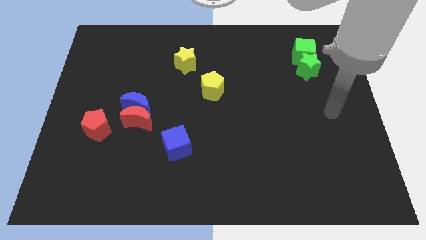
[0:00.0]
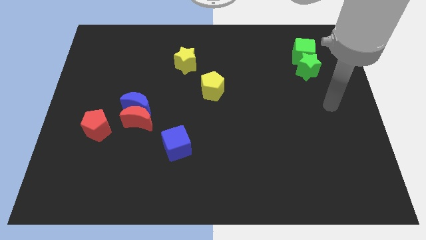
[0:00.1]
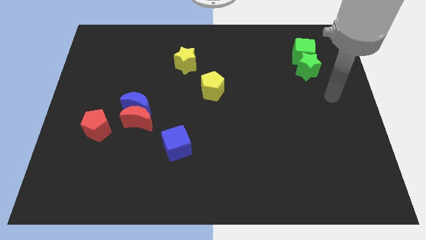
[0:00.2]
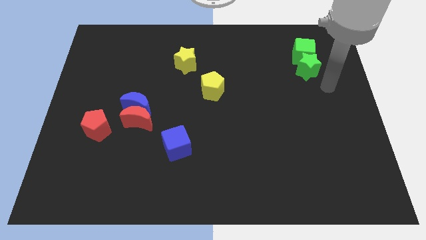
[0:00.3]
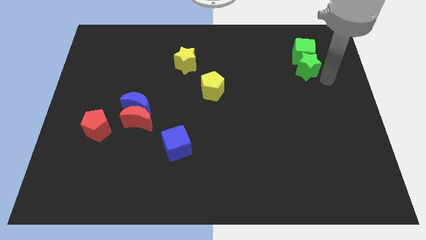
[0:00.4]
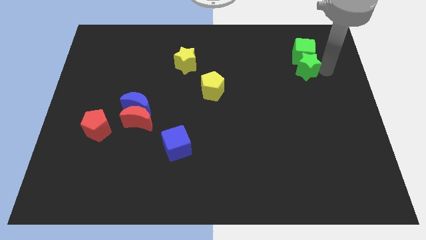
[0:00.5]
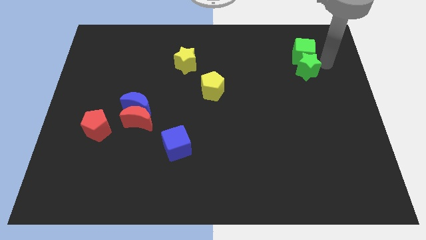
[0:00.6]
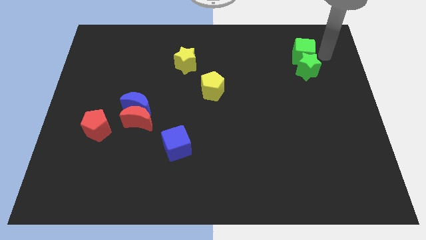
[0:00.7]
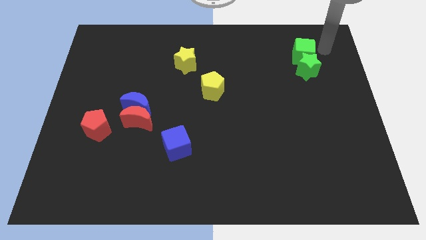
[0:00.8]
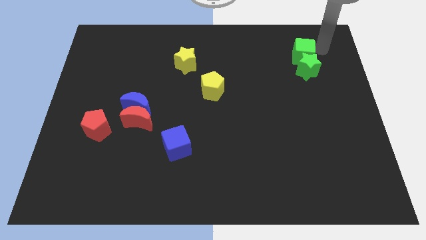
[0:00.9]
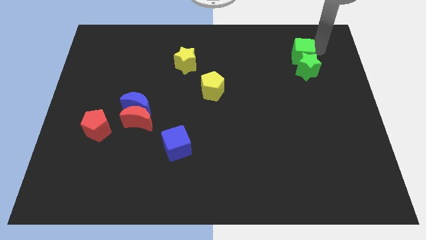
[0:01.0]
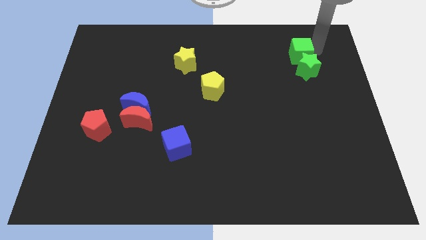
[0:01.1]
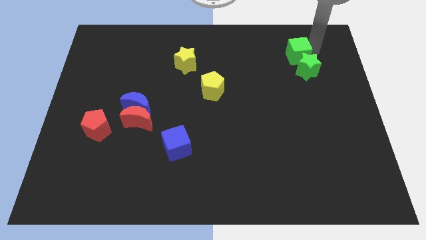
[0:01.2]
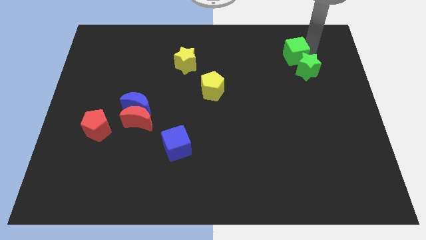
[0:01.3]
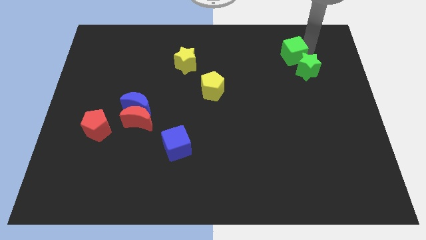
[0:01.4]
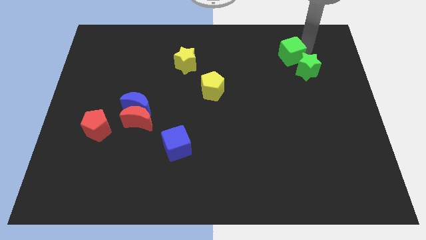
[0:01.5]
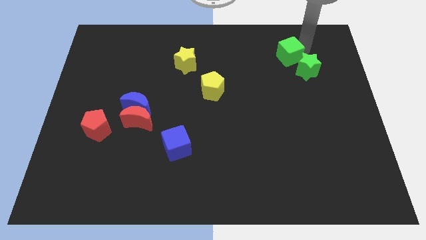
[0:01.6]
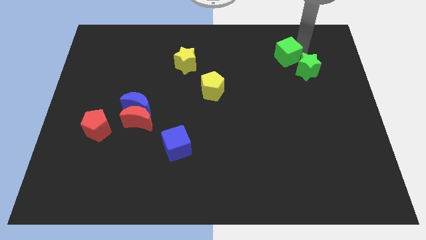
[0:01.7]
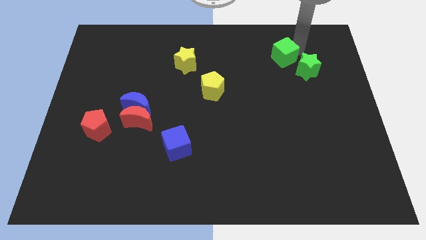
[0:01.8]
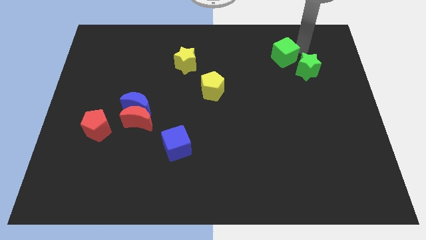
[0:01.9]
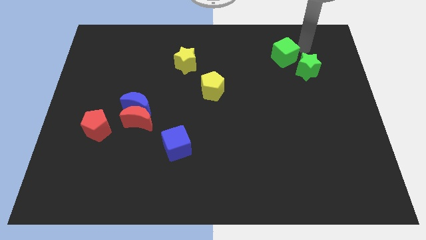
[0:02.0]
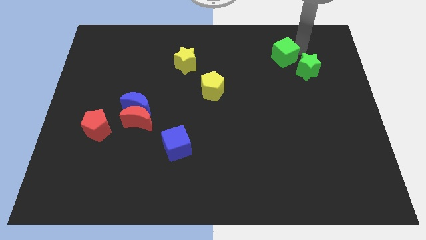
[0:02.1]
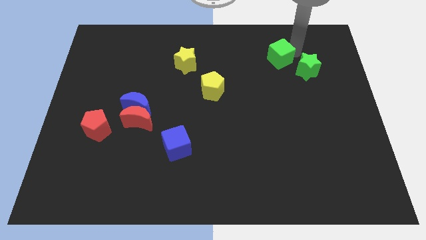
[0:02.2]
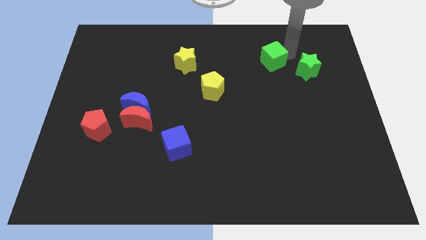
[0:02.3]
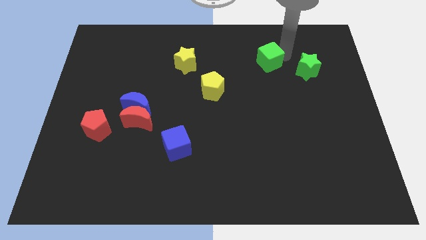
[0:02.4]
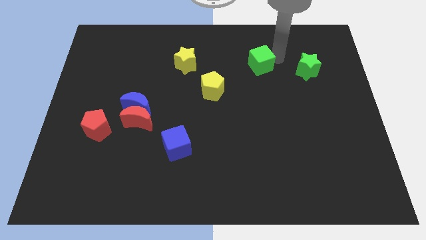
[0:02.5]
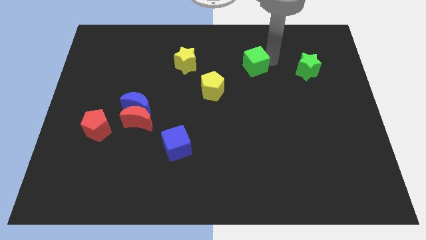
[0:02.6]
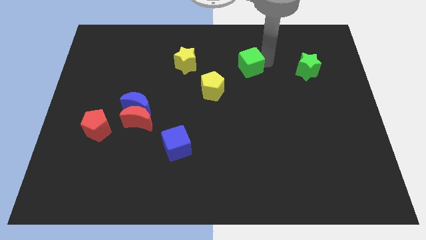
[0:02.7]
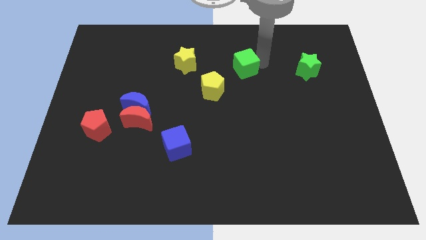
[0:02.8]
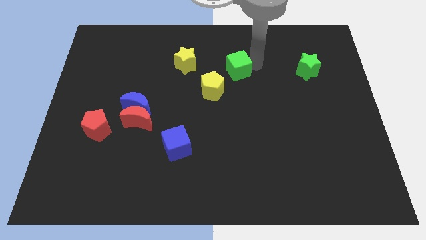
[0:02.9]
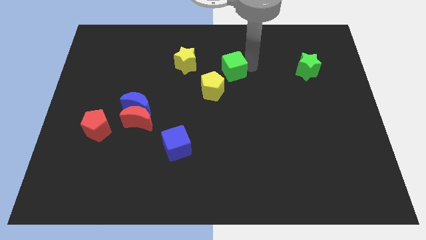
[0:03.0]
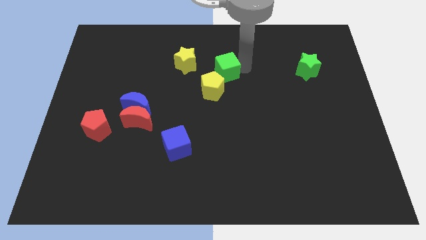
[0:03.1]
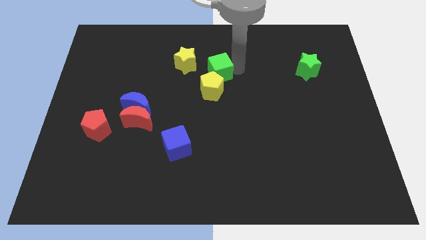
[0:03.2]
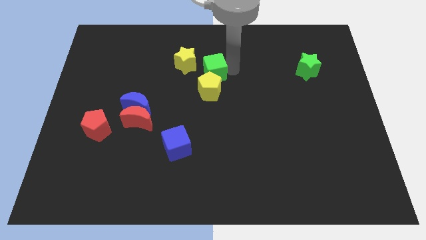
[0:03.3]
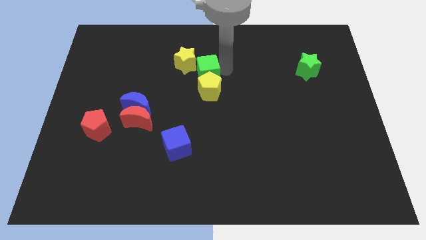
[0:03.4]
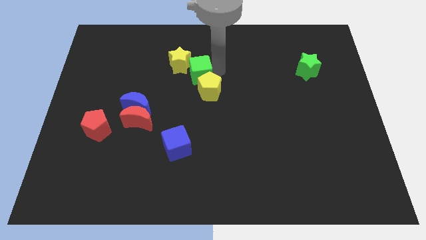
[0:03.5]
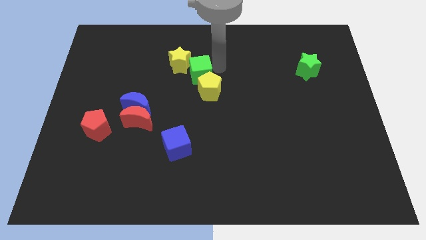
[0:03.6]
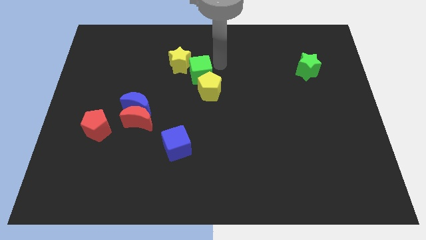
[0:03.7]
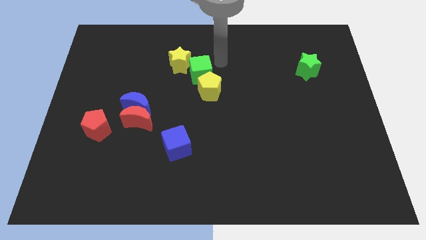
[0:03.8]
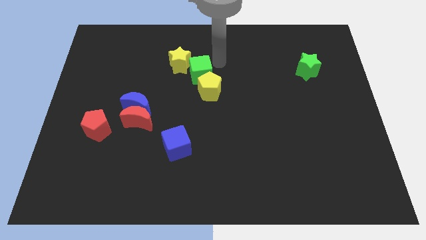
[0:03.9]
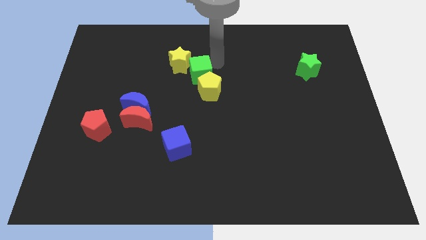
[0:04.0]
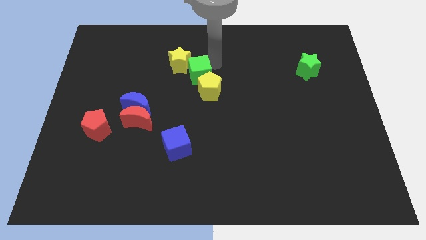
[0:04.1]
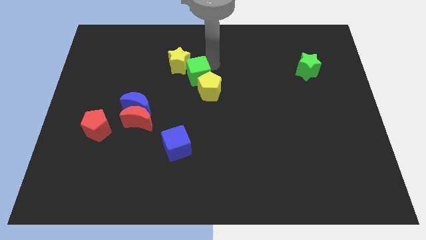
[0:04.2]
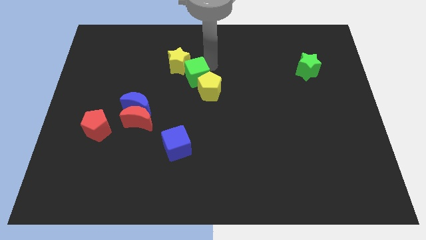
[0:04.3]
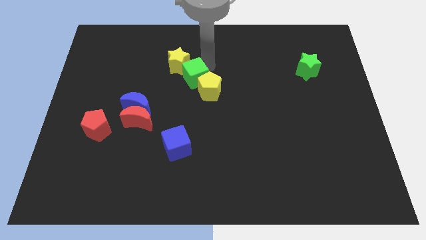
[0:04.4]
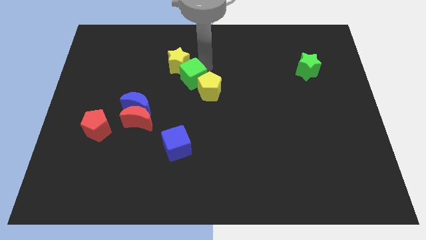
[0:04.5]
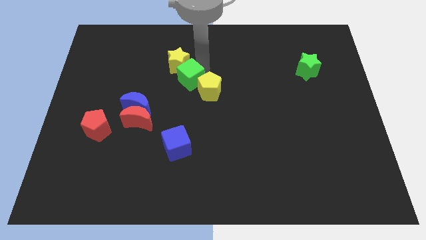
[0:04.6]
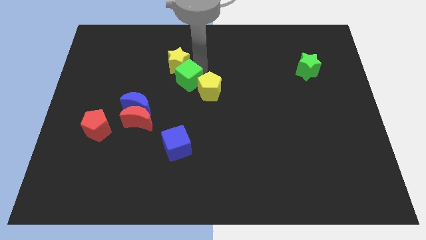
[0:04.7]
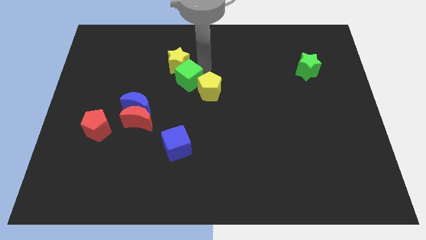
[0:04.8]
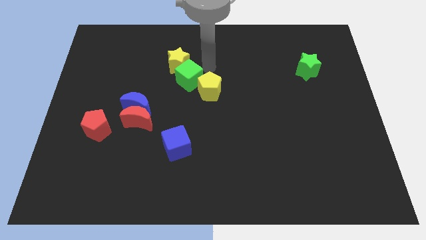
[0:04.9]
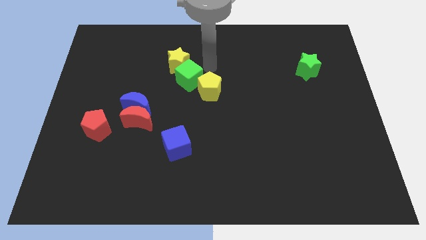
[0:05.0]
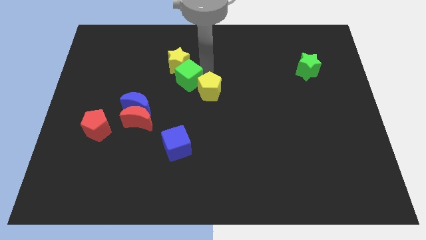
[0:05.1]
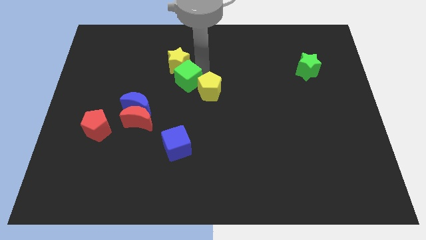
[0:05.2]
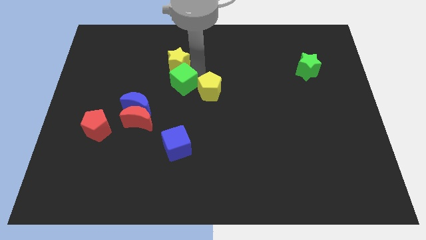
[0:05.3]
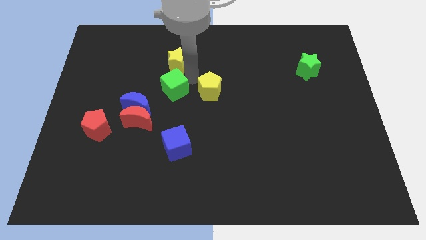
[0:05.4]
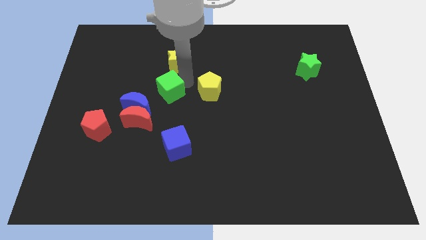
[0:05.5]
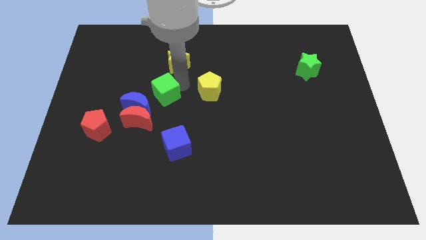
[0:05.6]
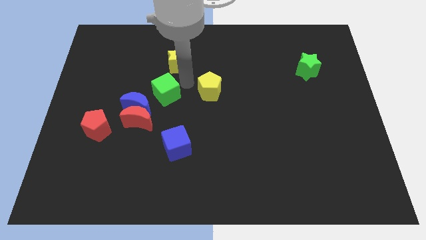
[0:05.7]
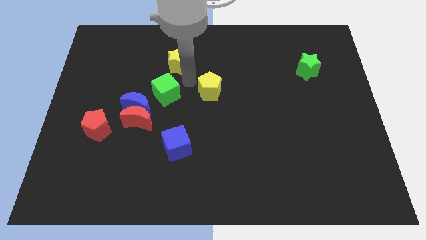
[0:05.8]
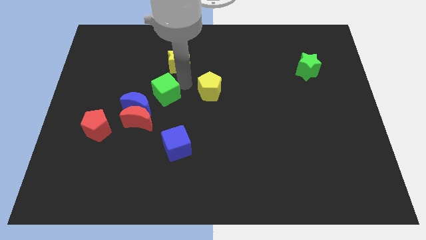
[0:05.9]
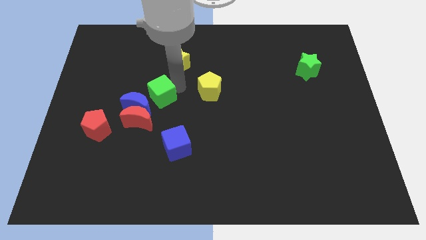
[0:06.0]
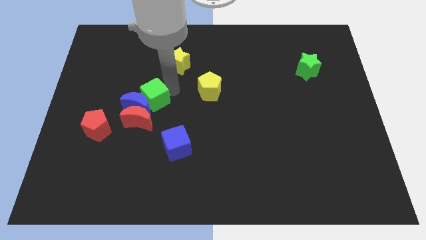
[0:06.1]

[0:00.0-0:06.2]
push the green cube to the blue moon

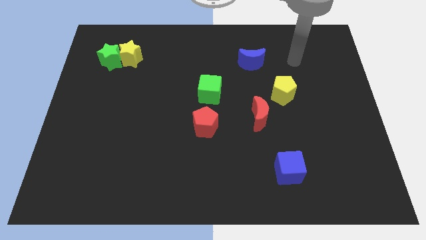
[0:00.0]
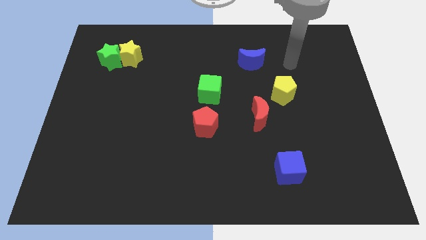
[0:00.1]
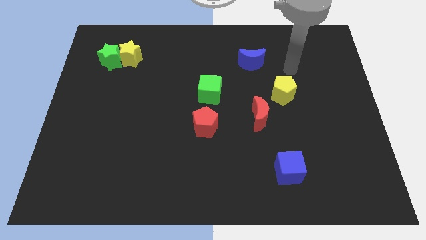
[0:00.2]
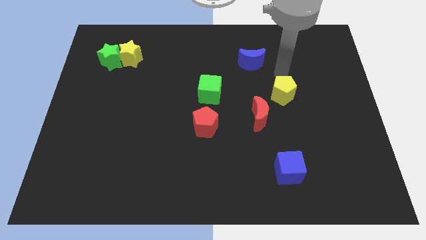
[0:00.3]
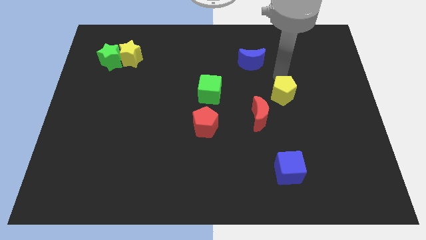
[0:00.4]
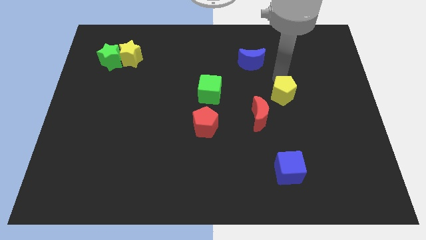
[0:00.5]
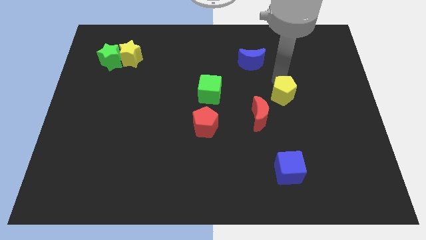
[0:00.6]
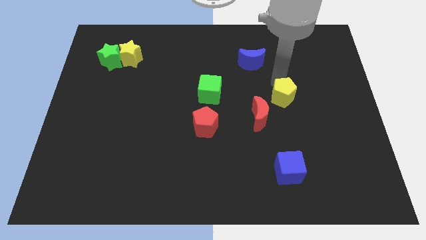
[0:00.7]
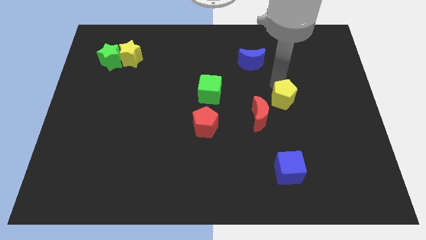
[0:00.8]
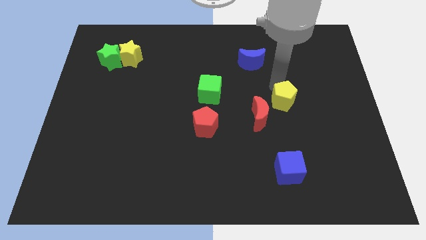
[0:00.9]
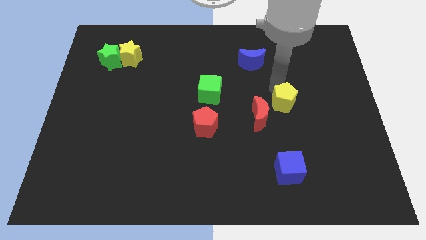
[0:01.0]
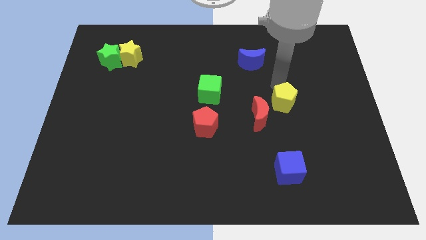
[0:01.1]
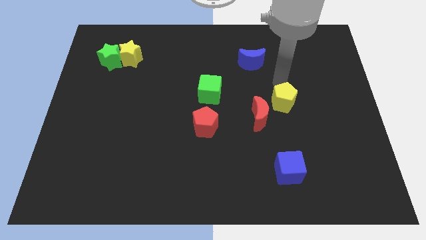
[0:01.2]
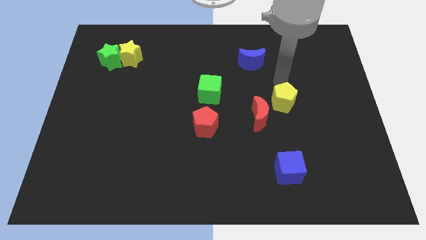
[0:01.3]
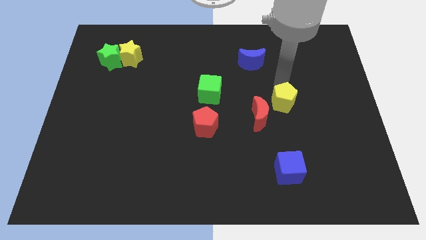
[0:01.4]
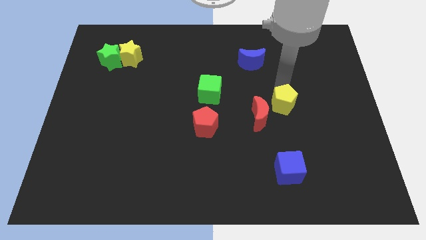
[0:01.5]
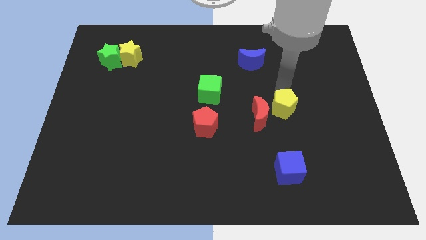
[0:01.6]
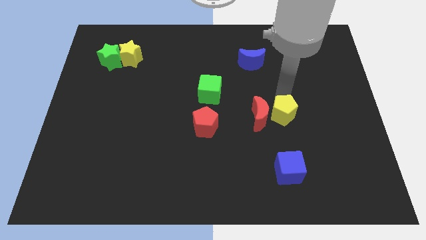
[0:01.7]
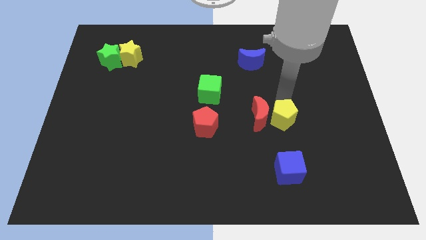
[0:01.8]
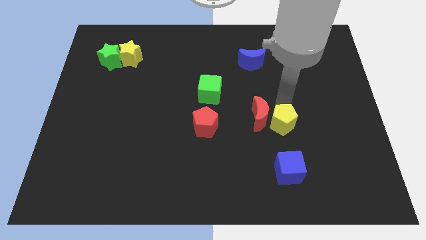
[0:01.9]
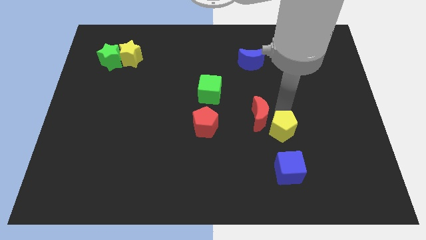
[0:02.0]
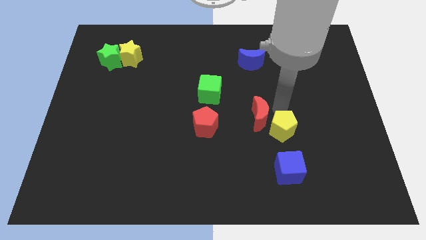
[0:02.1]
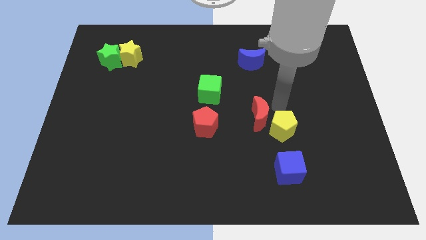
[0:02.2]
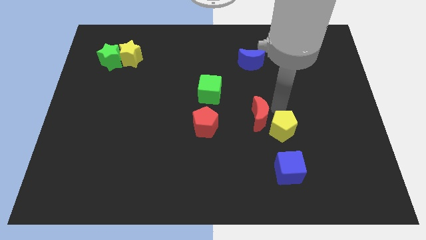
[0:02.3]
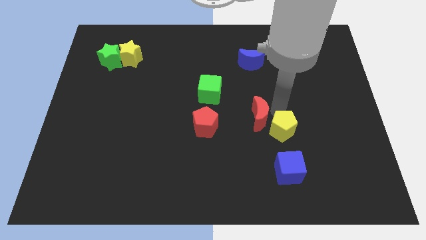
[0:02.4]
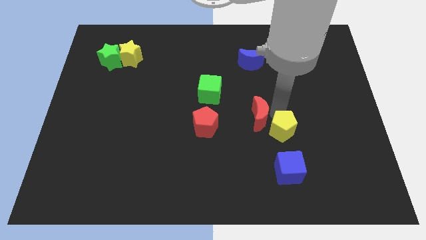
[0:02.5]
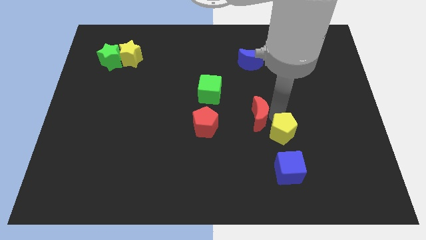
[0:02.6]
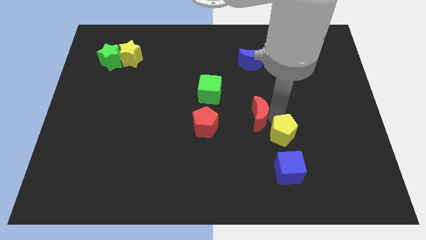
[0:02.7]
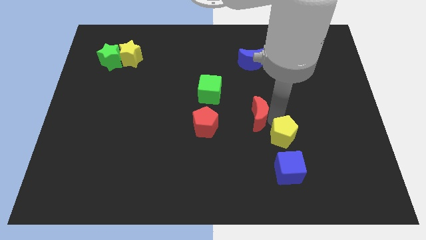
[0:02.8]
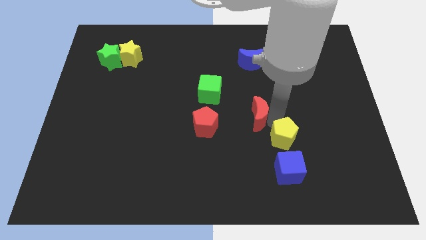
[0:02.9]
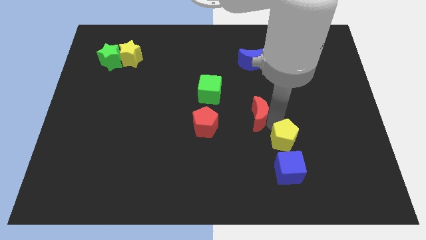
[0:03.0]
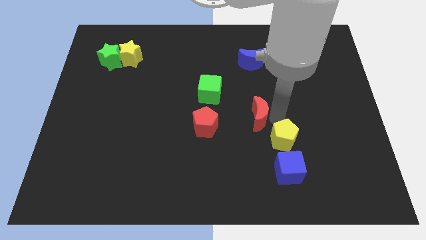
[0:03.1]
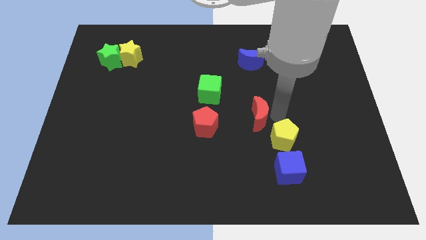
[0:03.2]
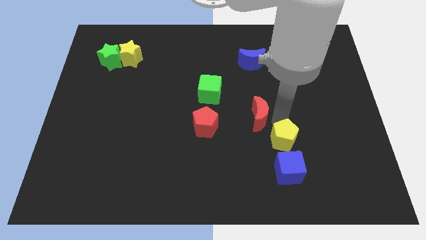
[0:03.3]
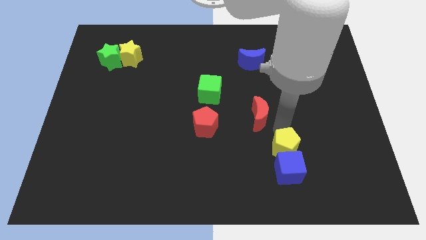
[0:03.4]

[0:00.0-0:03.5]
slide the yellow pentagon to the blue cube
